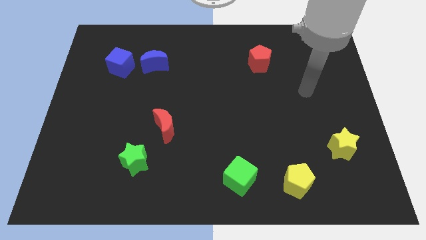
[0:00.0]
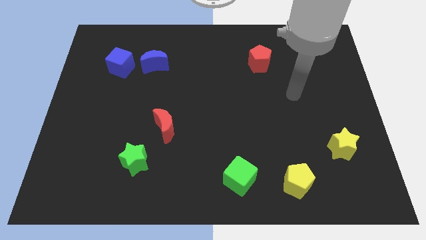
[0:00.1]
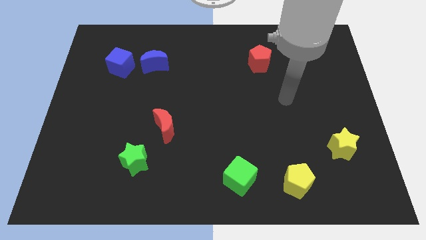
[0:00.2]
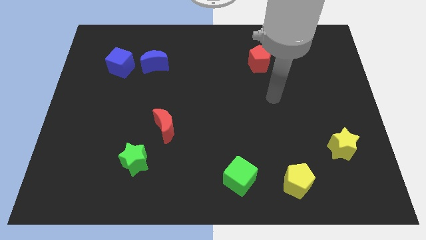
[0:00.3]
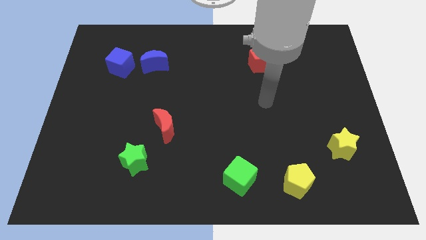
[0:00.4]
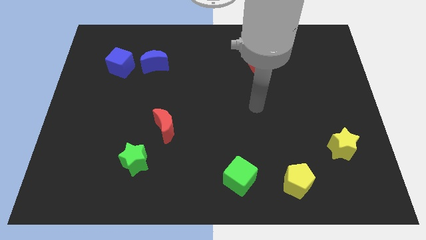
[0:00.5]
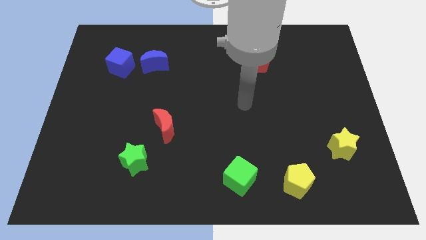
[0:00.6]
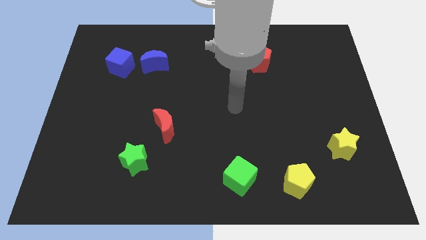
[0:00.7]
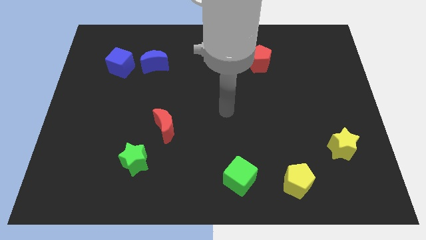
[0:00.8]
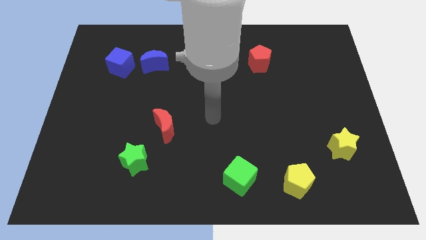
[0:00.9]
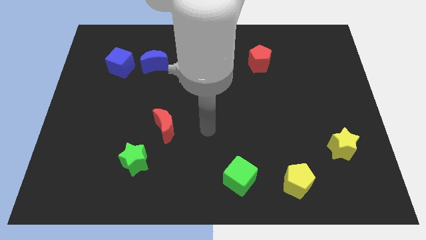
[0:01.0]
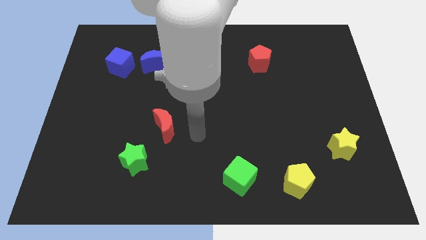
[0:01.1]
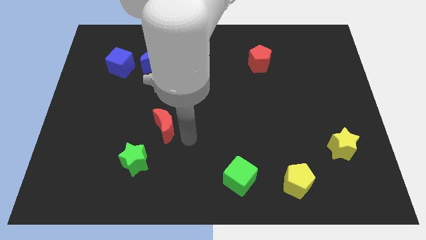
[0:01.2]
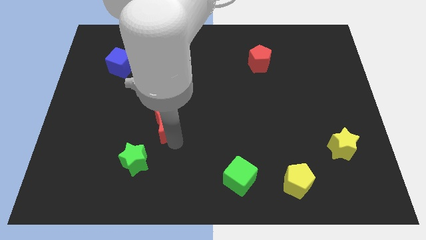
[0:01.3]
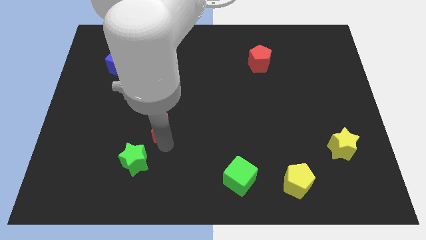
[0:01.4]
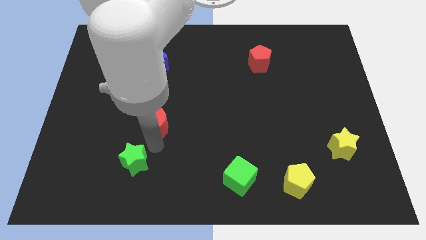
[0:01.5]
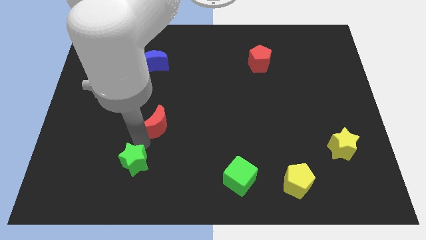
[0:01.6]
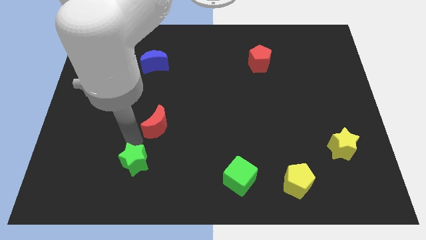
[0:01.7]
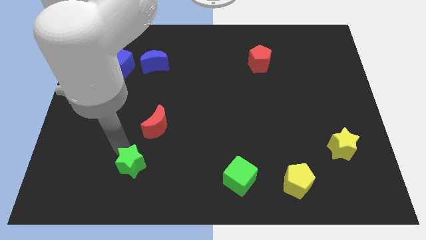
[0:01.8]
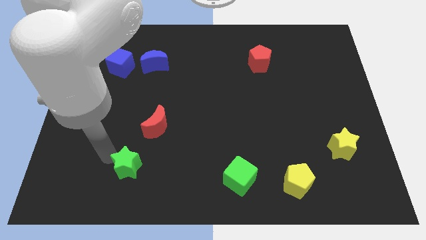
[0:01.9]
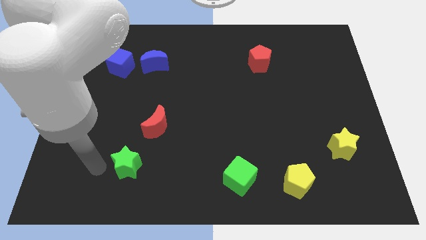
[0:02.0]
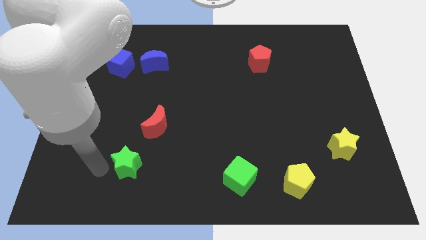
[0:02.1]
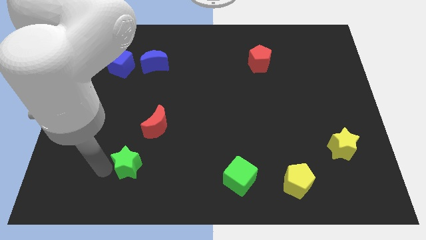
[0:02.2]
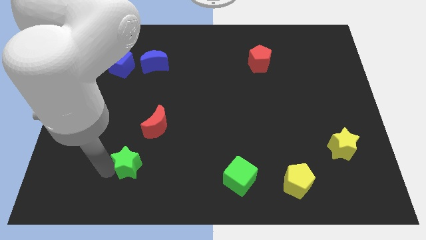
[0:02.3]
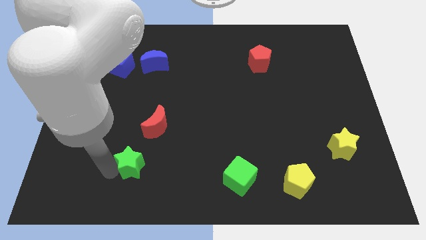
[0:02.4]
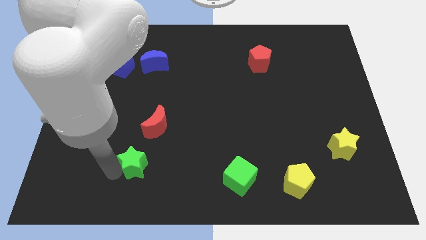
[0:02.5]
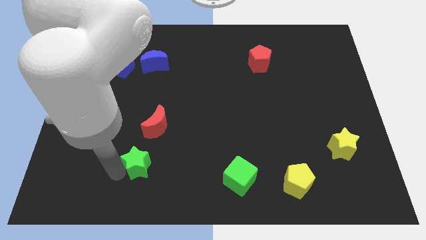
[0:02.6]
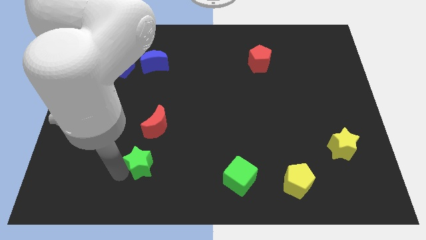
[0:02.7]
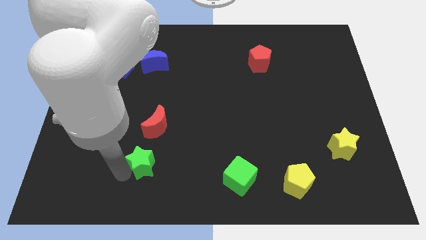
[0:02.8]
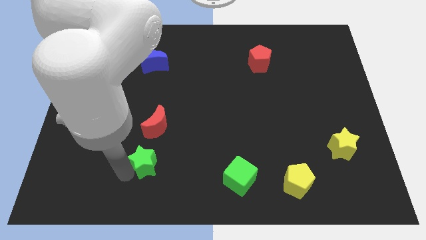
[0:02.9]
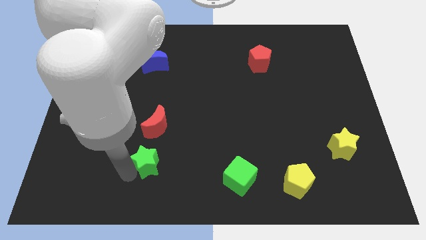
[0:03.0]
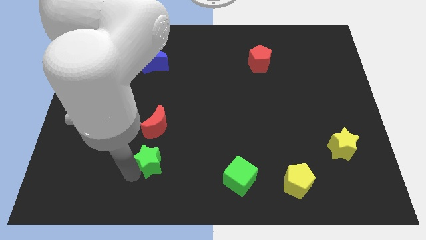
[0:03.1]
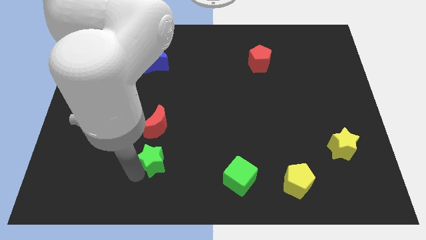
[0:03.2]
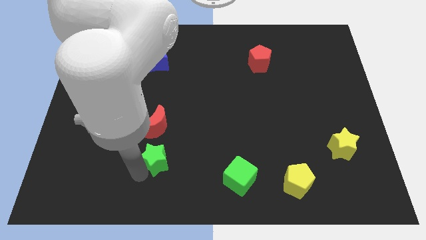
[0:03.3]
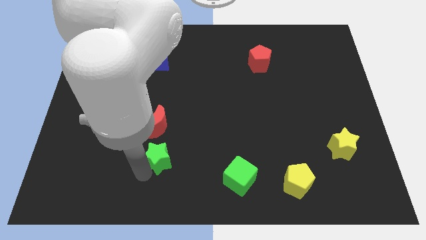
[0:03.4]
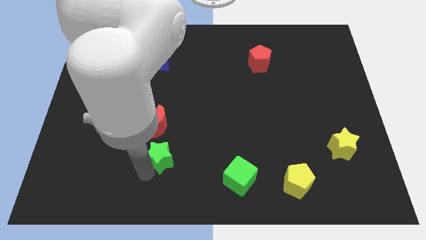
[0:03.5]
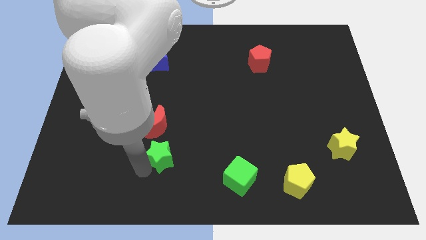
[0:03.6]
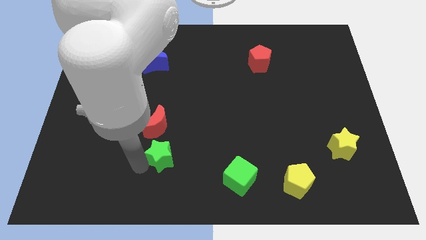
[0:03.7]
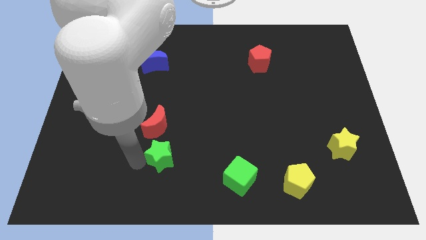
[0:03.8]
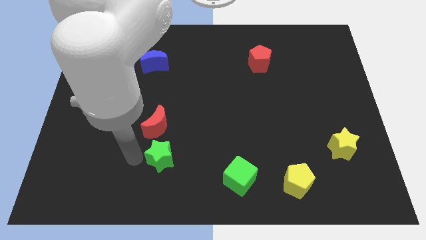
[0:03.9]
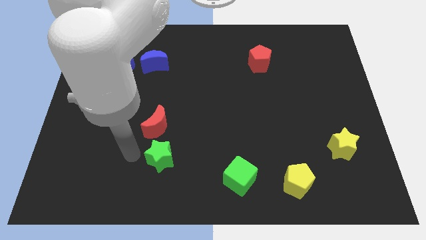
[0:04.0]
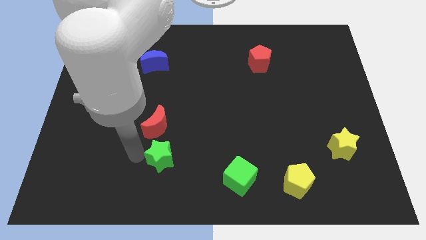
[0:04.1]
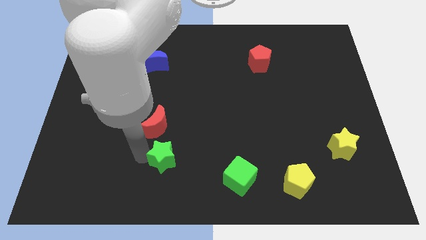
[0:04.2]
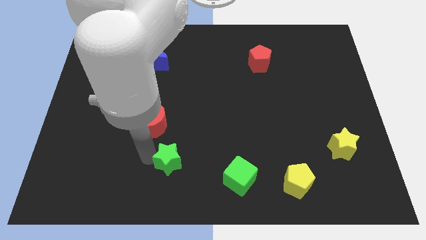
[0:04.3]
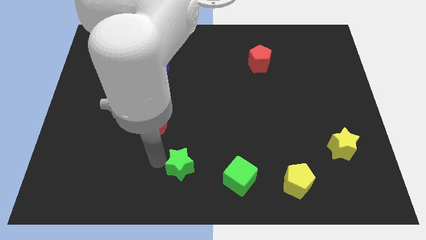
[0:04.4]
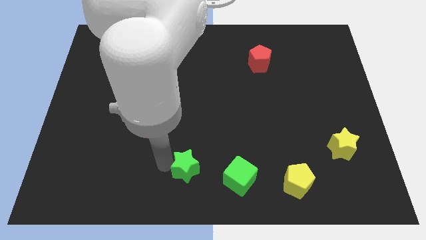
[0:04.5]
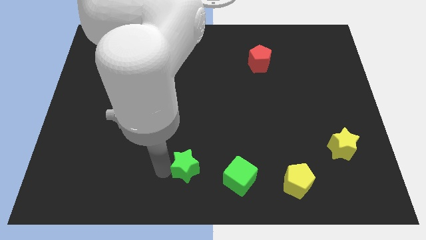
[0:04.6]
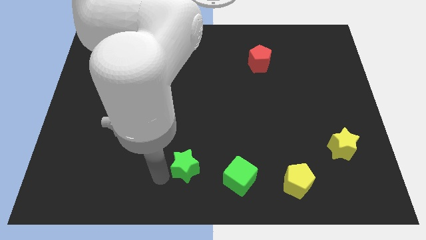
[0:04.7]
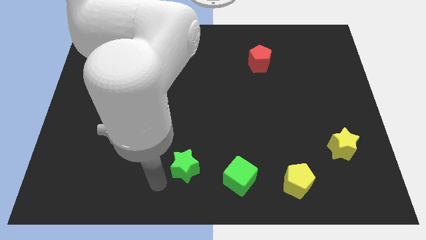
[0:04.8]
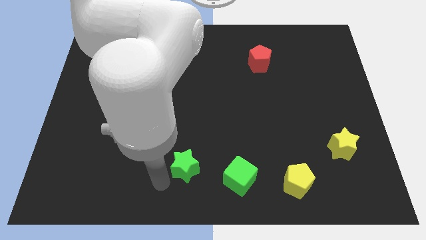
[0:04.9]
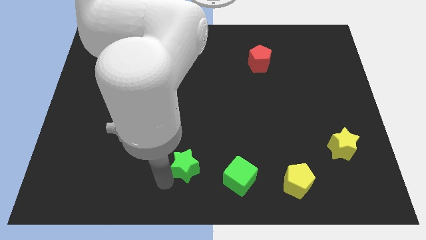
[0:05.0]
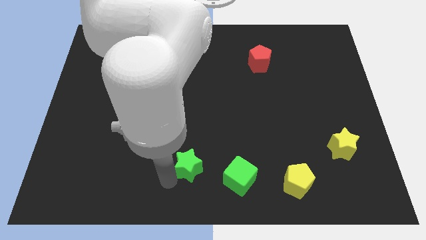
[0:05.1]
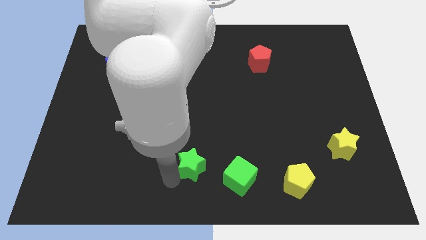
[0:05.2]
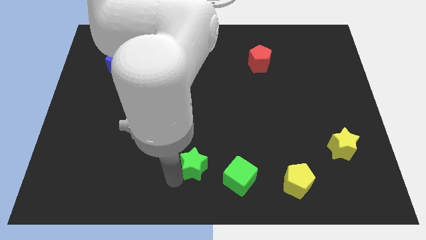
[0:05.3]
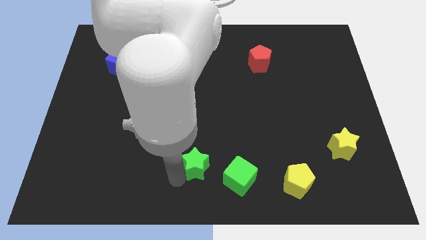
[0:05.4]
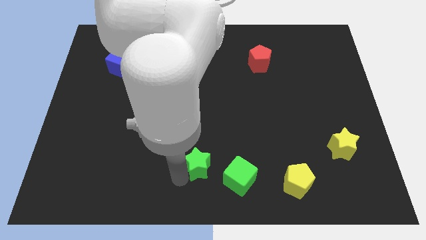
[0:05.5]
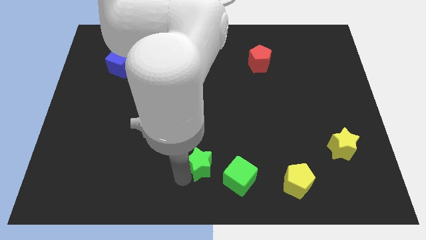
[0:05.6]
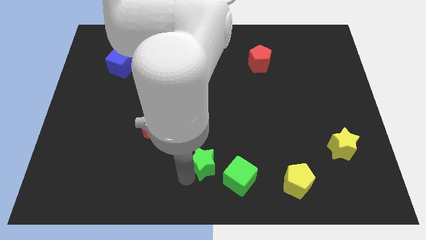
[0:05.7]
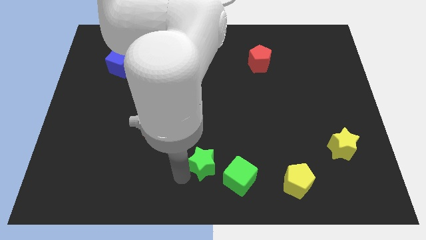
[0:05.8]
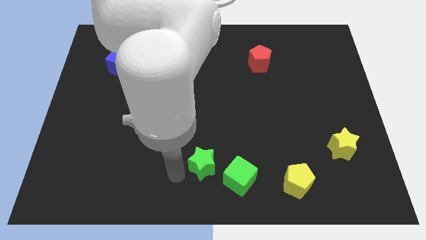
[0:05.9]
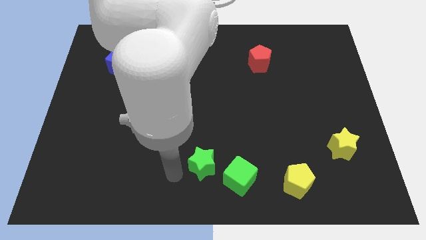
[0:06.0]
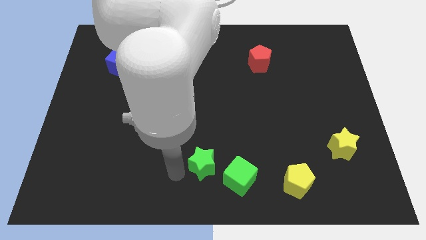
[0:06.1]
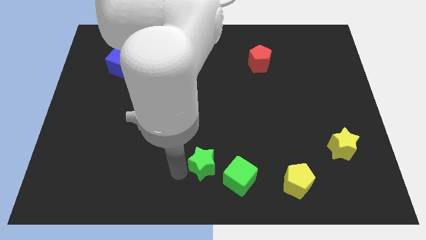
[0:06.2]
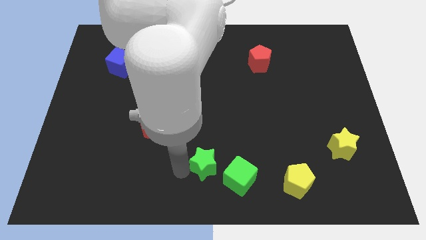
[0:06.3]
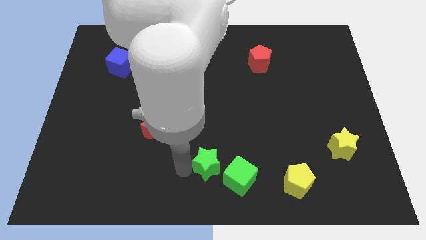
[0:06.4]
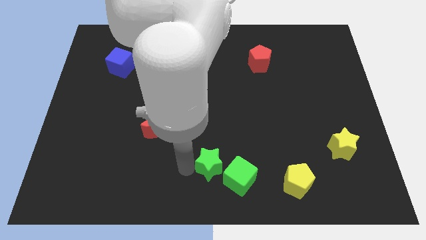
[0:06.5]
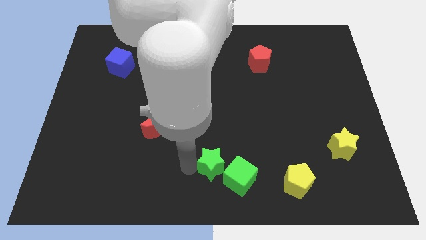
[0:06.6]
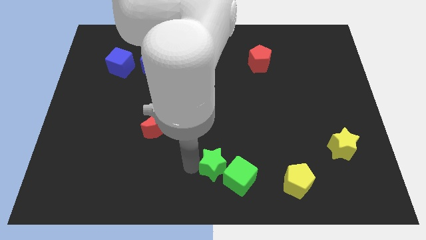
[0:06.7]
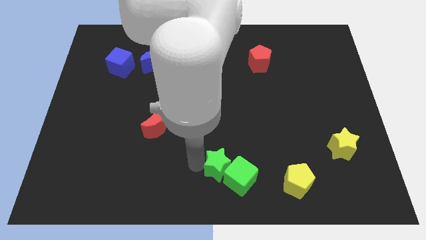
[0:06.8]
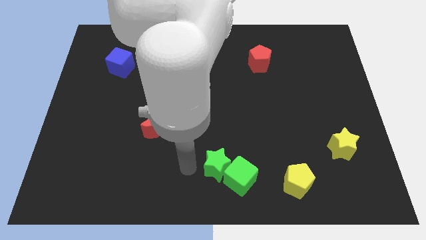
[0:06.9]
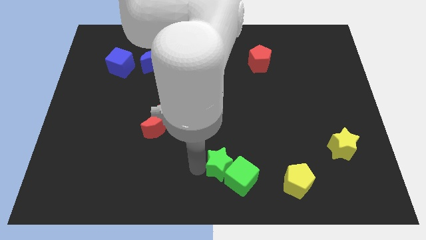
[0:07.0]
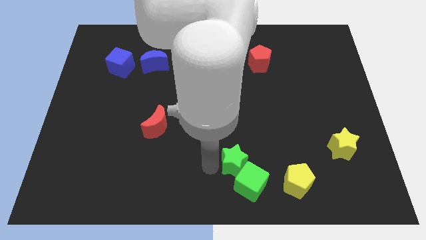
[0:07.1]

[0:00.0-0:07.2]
push the green star right

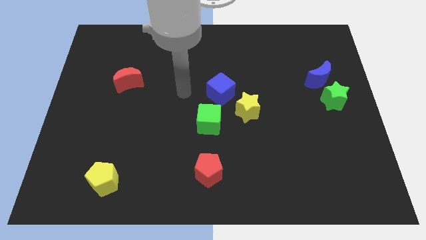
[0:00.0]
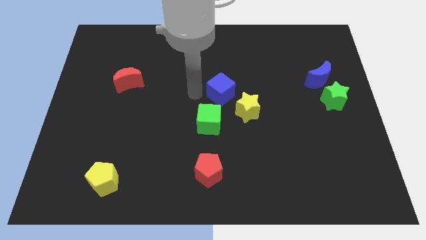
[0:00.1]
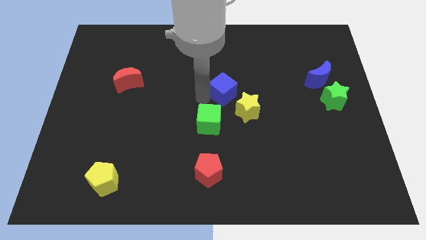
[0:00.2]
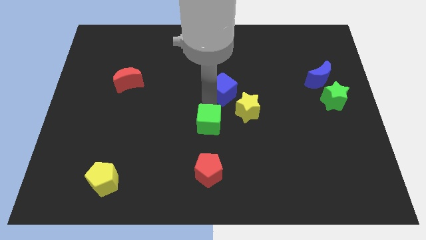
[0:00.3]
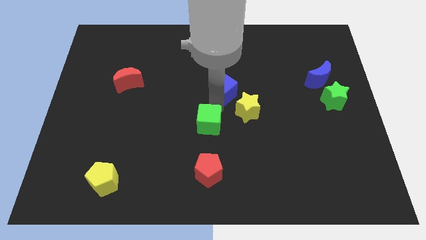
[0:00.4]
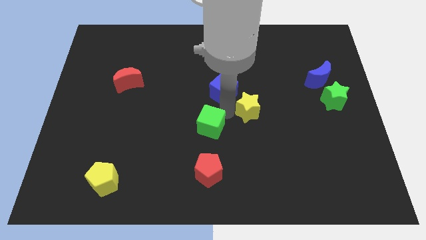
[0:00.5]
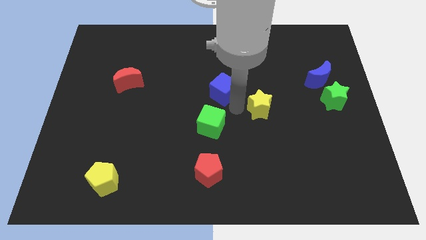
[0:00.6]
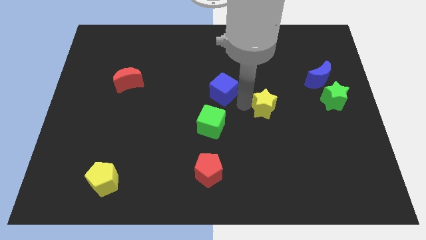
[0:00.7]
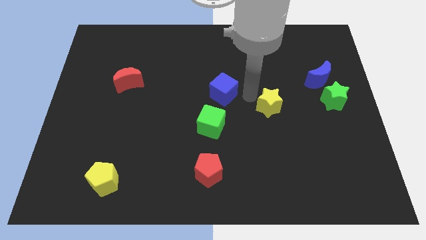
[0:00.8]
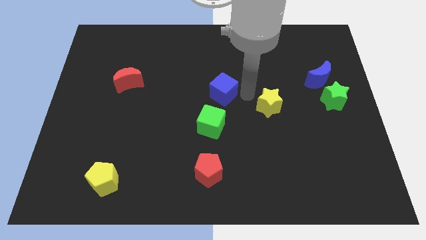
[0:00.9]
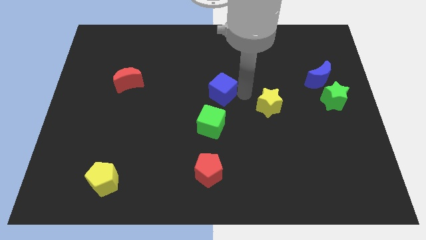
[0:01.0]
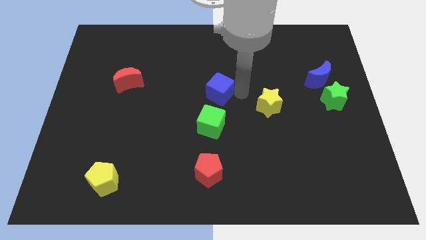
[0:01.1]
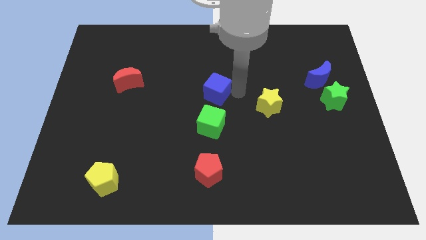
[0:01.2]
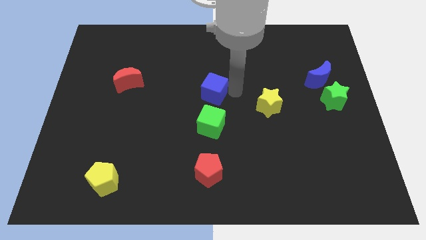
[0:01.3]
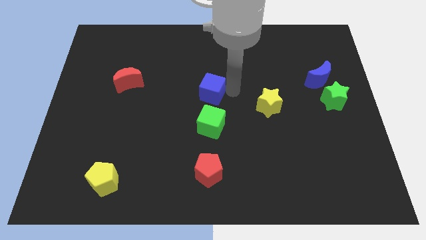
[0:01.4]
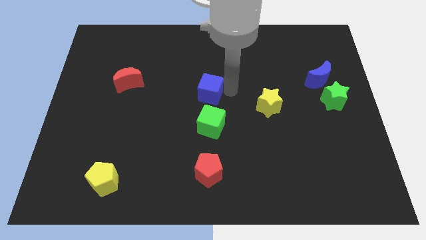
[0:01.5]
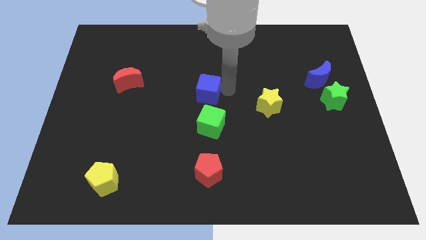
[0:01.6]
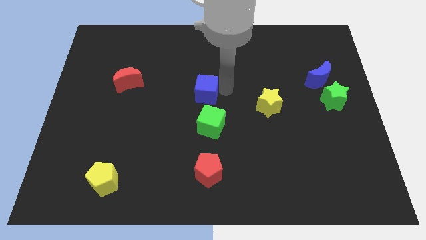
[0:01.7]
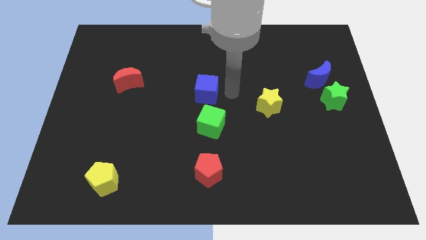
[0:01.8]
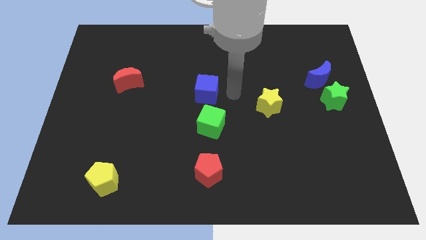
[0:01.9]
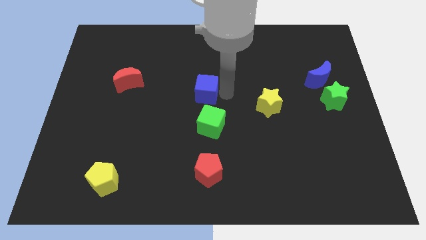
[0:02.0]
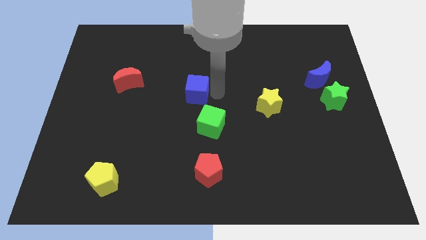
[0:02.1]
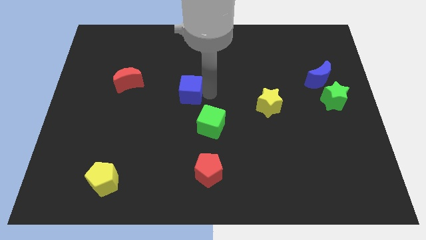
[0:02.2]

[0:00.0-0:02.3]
move the blue cube to the left somewhat
